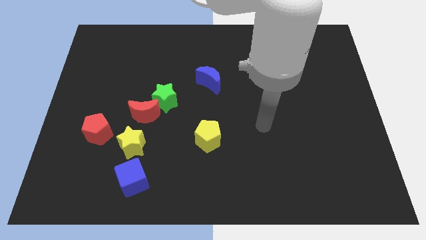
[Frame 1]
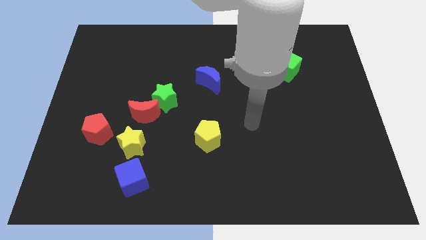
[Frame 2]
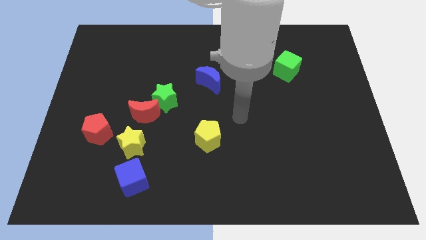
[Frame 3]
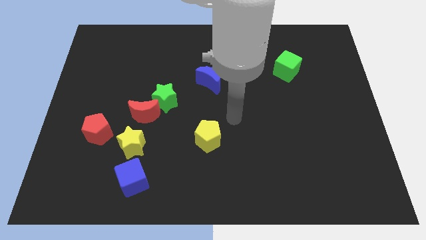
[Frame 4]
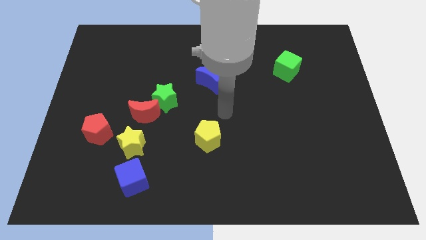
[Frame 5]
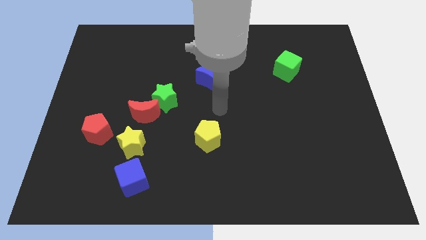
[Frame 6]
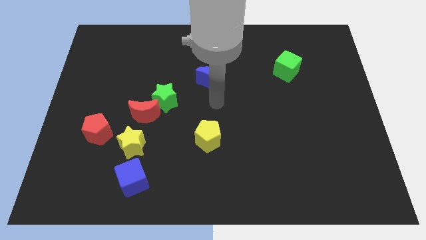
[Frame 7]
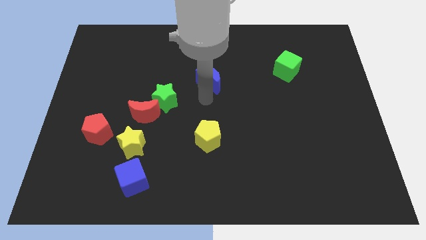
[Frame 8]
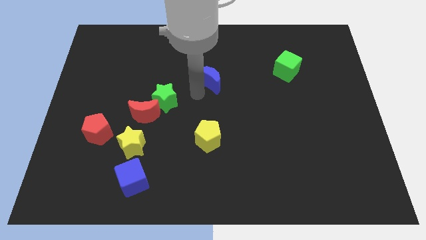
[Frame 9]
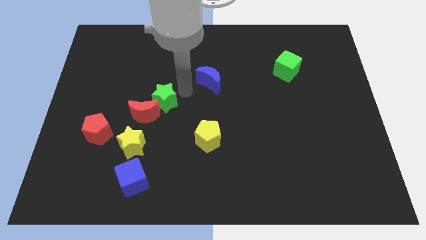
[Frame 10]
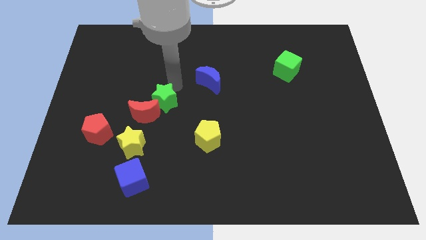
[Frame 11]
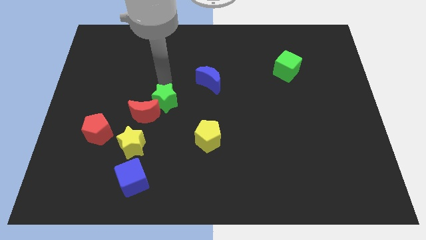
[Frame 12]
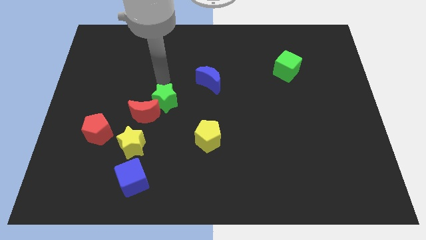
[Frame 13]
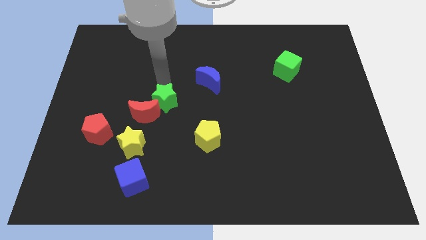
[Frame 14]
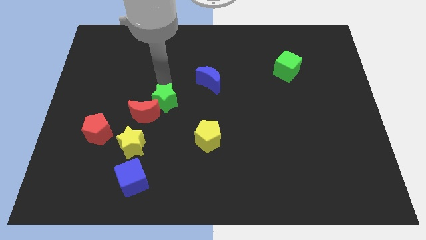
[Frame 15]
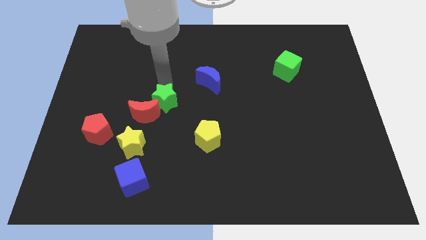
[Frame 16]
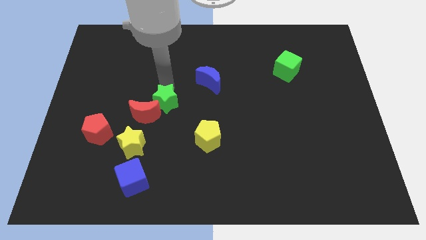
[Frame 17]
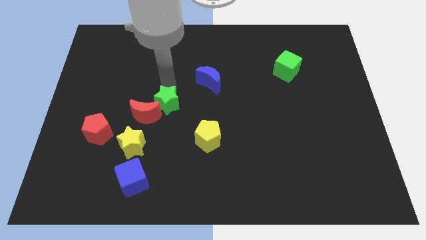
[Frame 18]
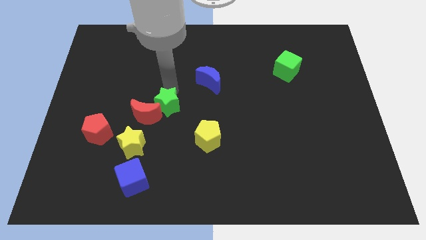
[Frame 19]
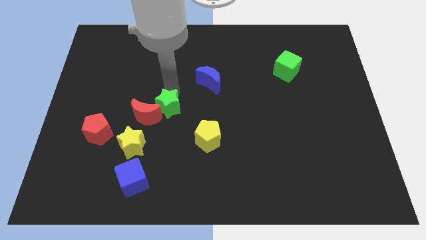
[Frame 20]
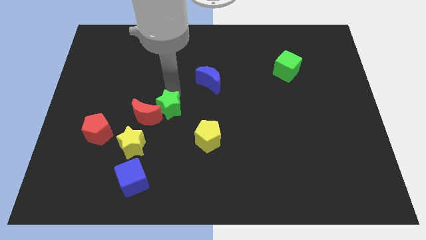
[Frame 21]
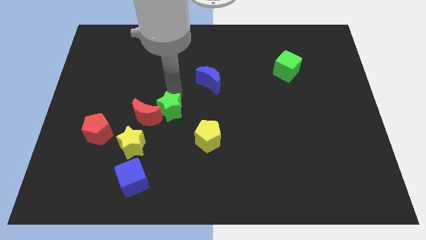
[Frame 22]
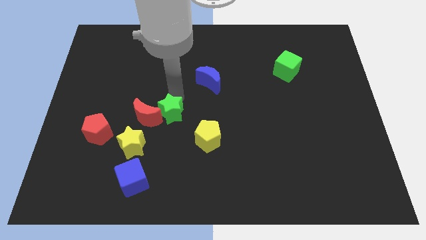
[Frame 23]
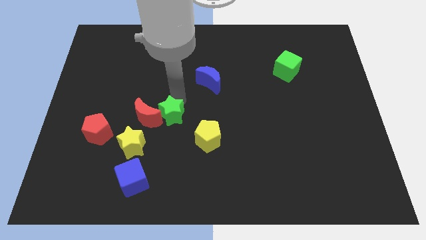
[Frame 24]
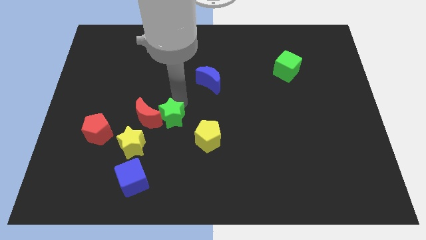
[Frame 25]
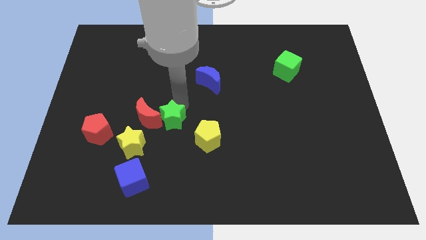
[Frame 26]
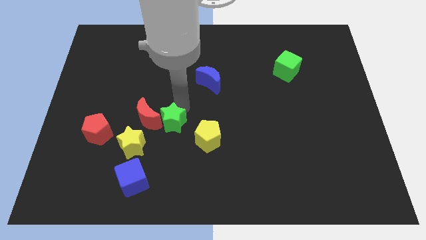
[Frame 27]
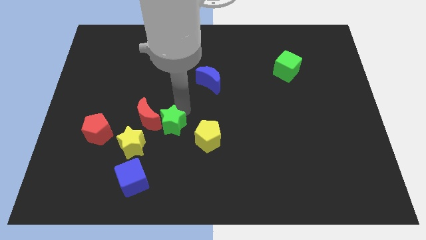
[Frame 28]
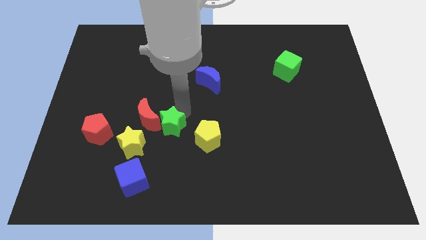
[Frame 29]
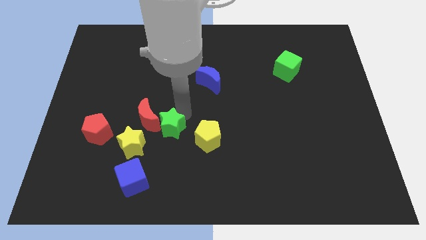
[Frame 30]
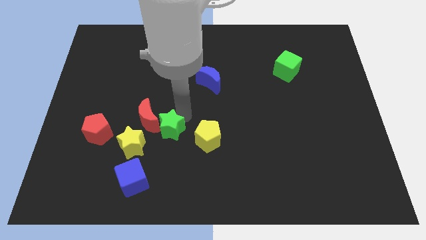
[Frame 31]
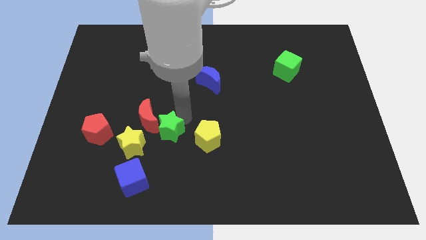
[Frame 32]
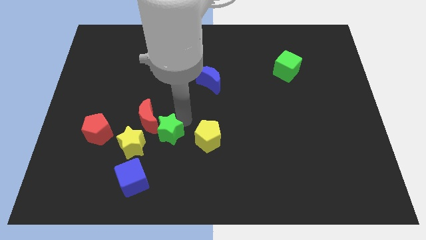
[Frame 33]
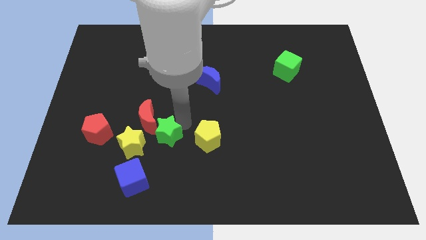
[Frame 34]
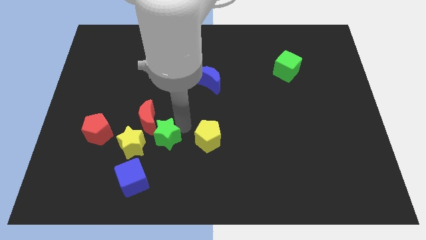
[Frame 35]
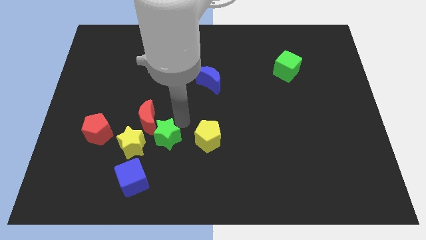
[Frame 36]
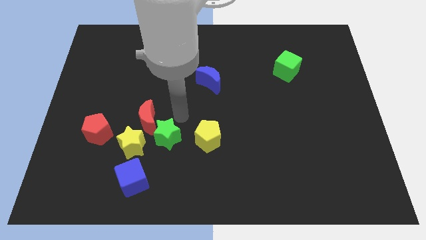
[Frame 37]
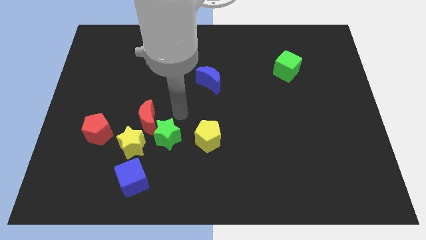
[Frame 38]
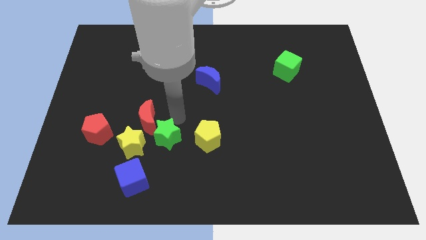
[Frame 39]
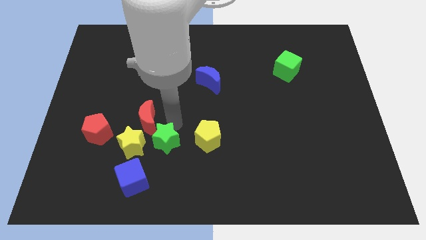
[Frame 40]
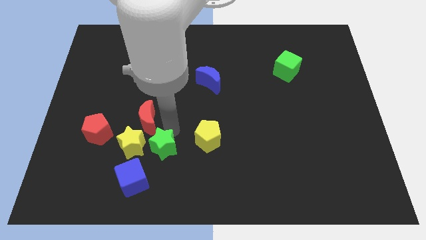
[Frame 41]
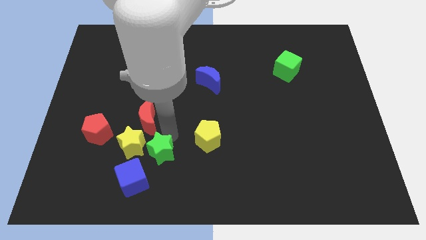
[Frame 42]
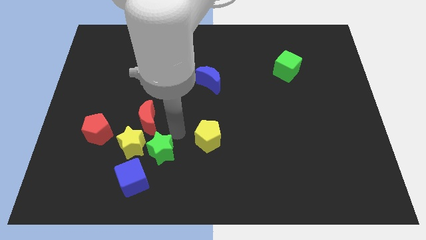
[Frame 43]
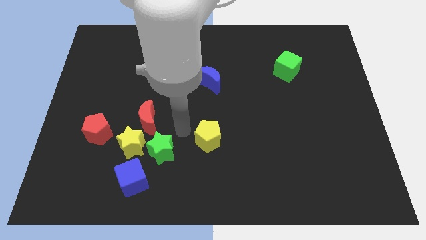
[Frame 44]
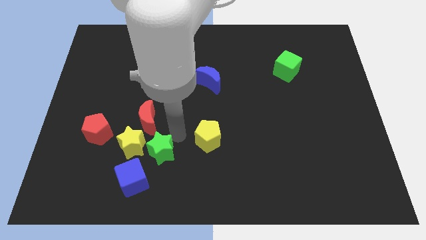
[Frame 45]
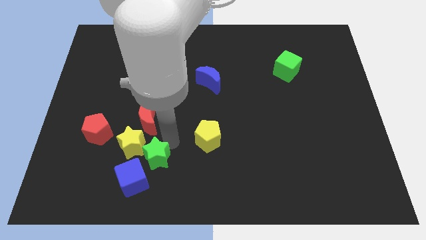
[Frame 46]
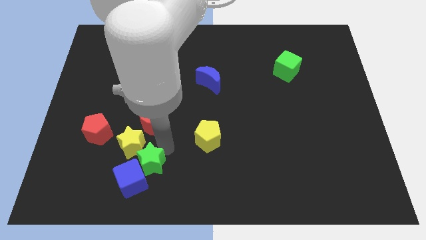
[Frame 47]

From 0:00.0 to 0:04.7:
slide the green star to the blue cube

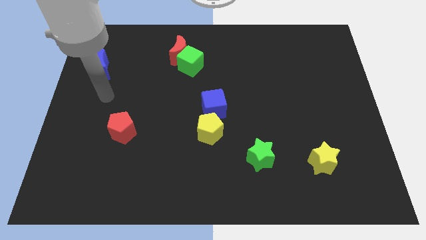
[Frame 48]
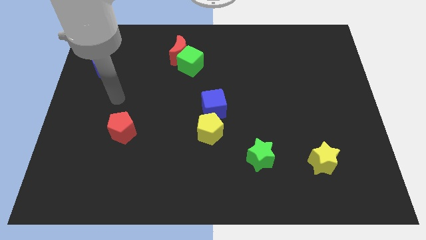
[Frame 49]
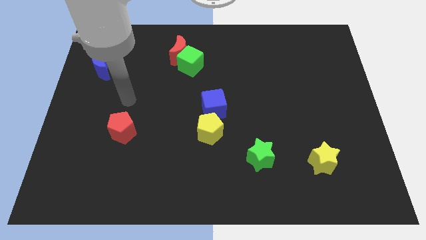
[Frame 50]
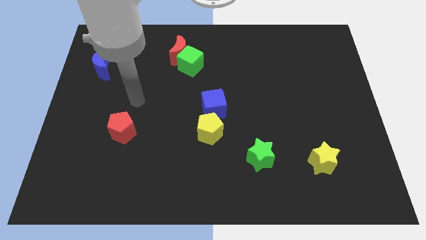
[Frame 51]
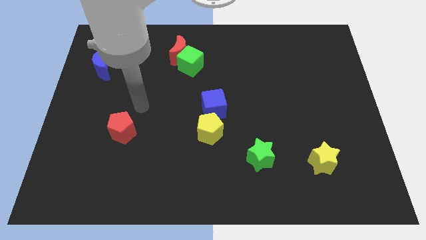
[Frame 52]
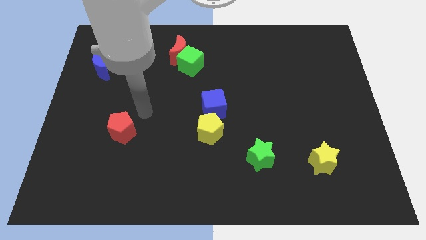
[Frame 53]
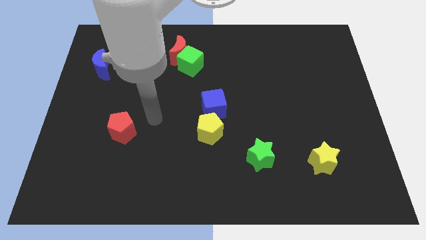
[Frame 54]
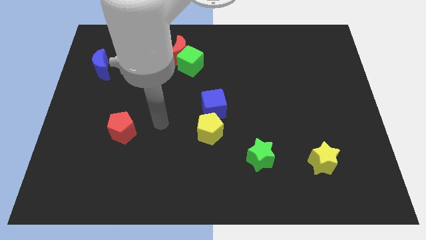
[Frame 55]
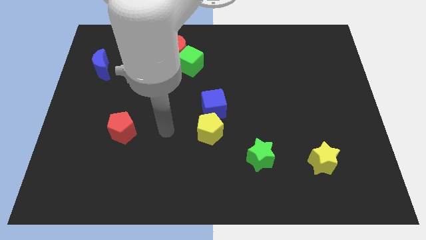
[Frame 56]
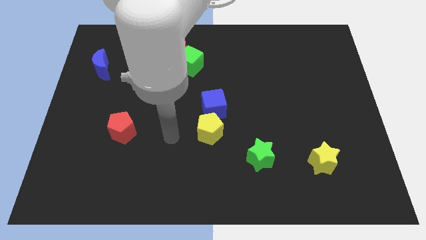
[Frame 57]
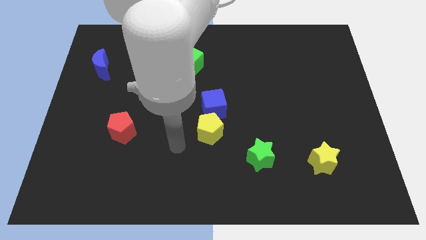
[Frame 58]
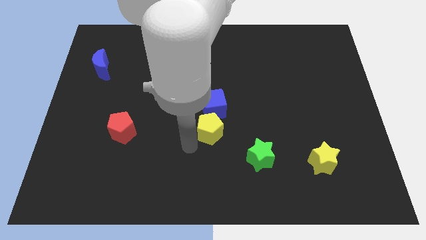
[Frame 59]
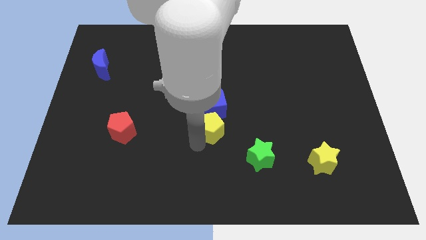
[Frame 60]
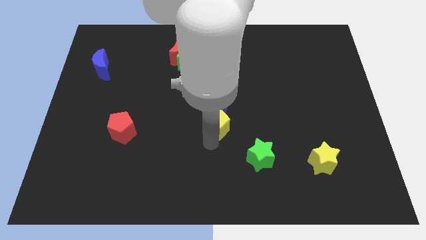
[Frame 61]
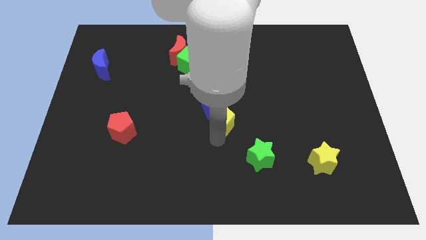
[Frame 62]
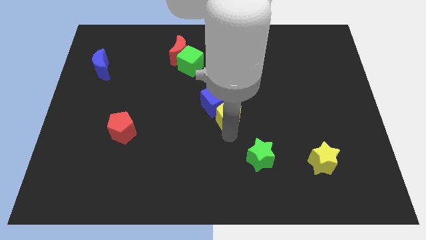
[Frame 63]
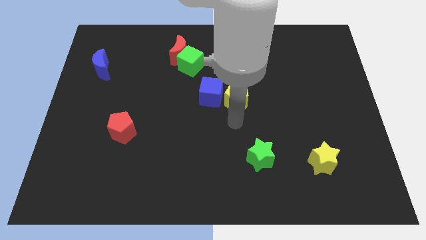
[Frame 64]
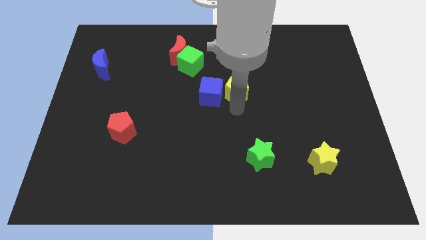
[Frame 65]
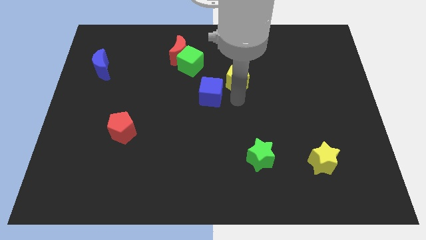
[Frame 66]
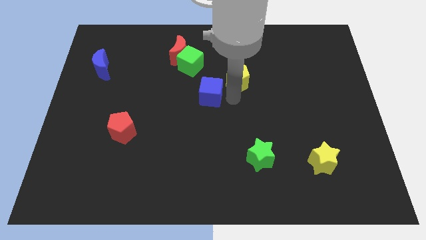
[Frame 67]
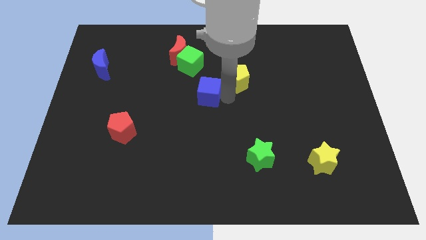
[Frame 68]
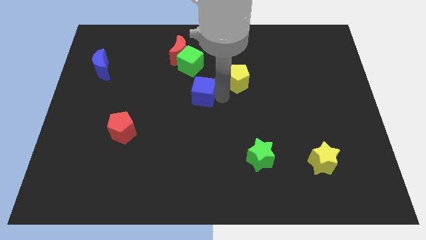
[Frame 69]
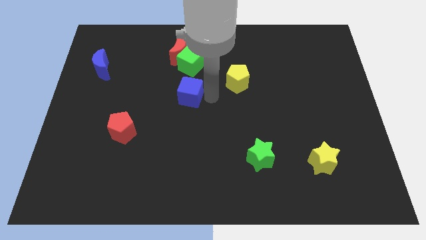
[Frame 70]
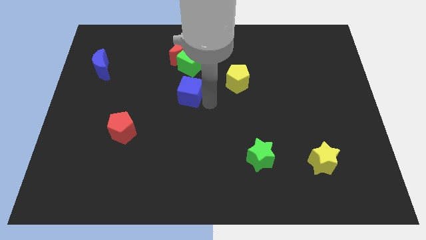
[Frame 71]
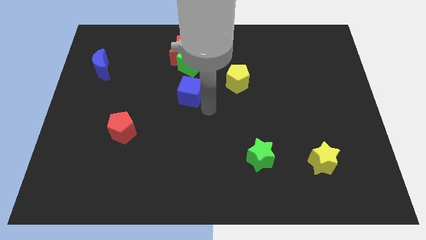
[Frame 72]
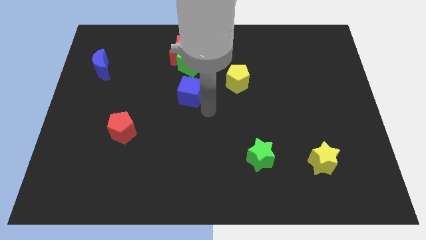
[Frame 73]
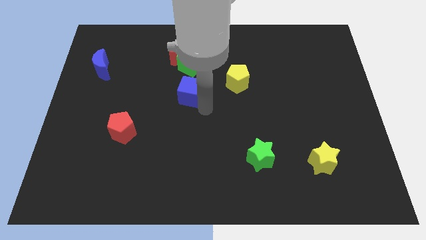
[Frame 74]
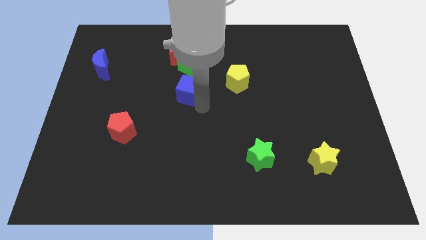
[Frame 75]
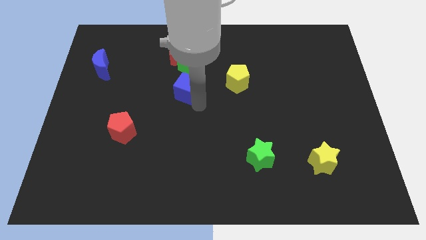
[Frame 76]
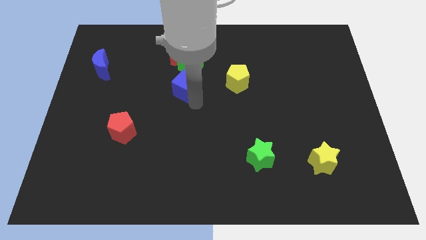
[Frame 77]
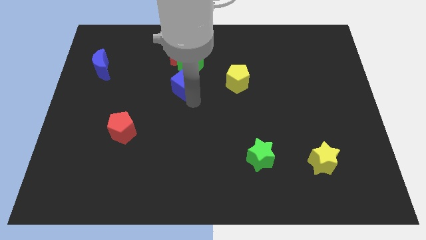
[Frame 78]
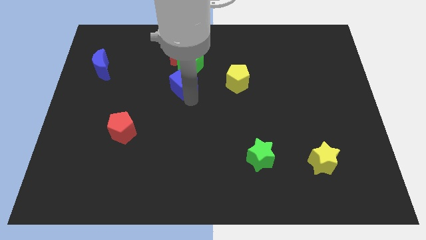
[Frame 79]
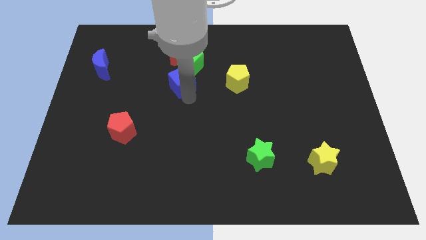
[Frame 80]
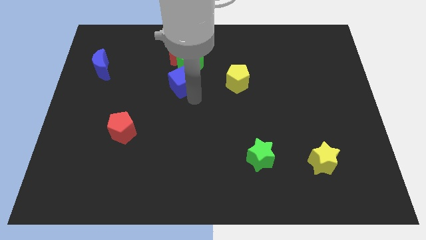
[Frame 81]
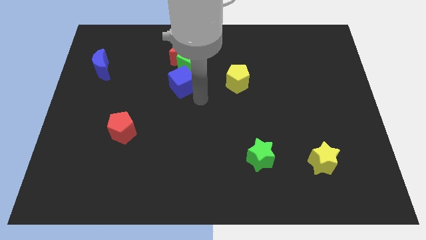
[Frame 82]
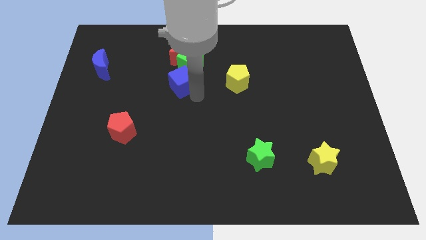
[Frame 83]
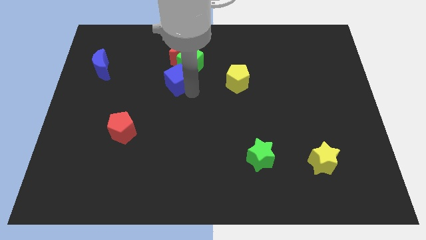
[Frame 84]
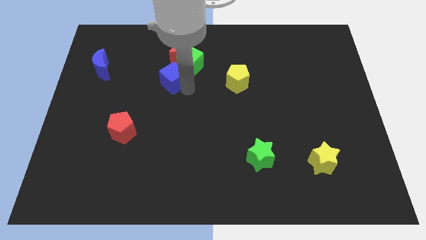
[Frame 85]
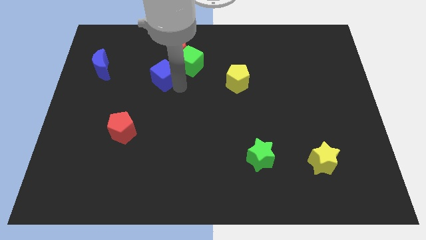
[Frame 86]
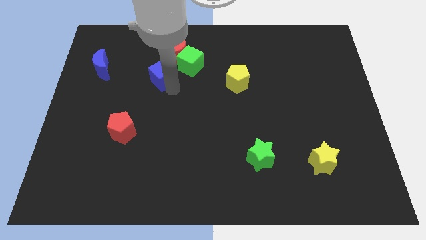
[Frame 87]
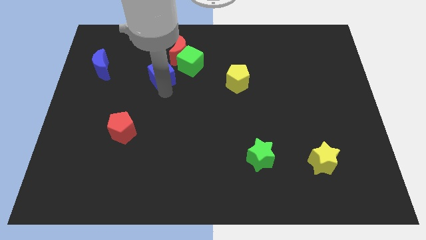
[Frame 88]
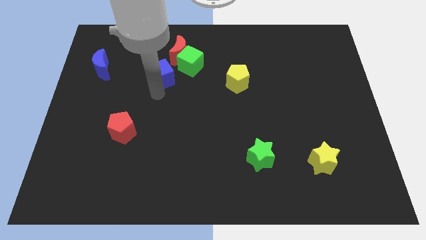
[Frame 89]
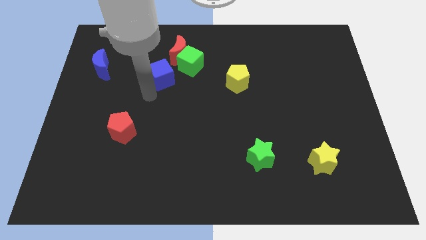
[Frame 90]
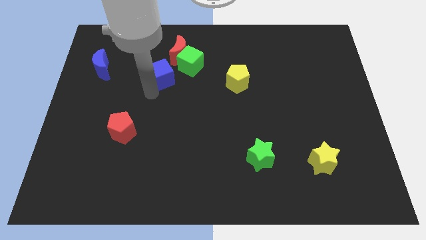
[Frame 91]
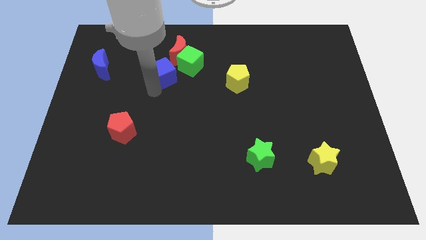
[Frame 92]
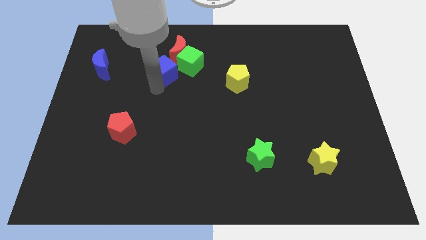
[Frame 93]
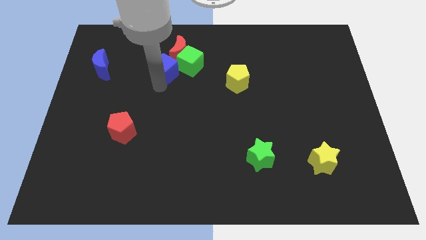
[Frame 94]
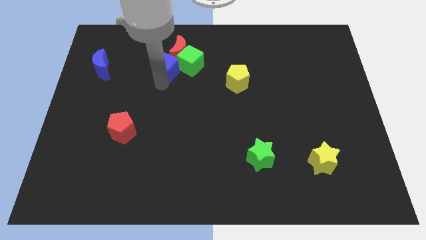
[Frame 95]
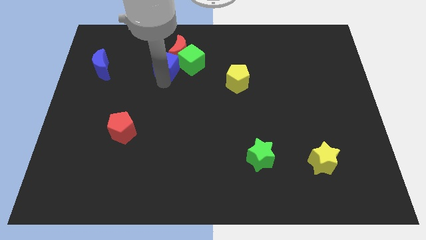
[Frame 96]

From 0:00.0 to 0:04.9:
move the blue cube close to the red moon
